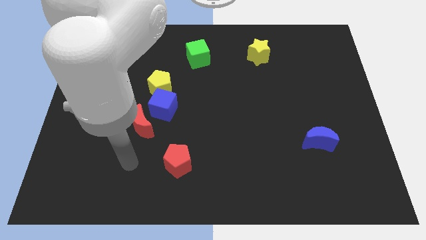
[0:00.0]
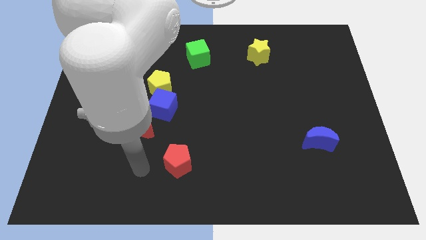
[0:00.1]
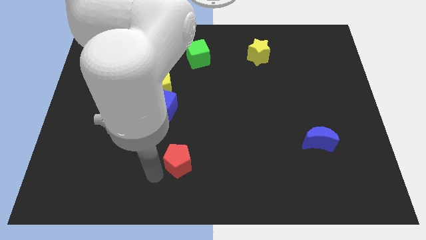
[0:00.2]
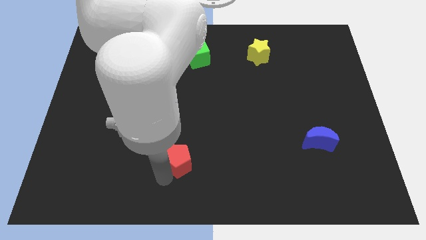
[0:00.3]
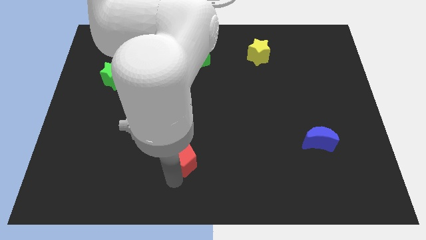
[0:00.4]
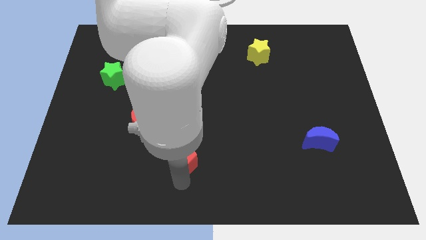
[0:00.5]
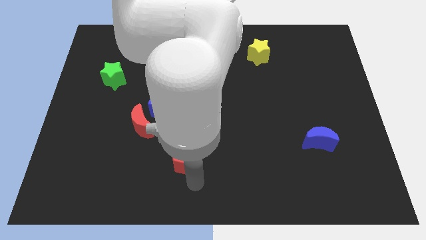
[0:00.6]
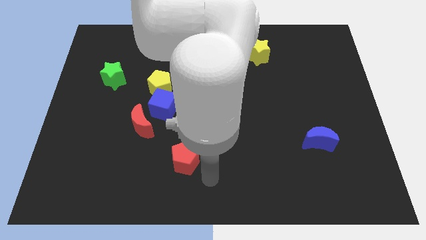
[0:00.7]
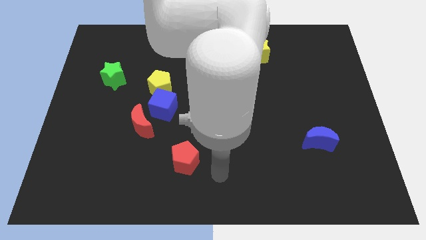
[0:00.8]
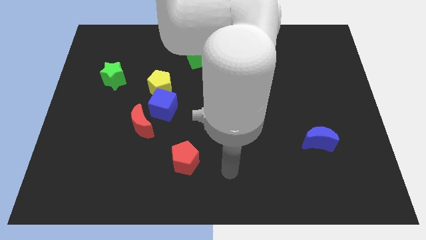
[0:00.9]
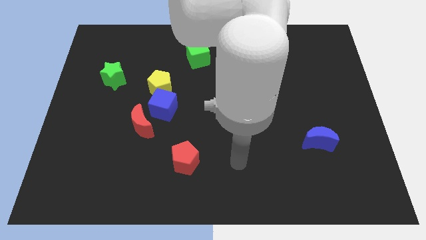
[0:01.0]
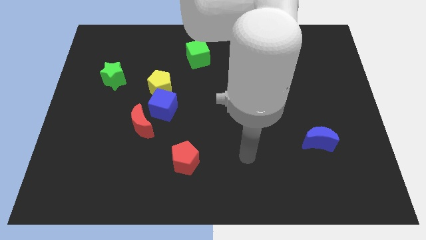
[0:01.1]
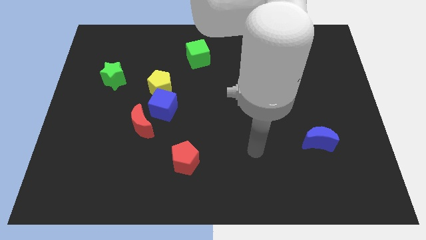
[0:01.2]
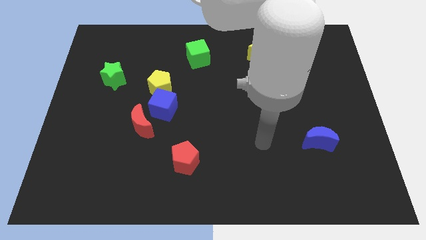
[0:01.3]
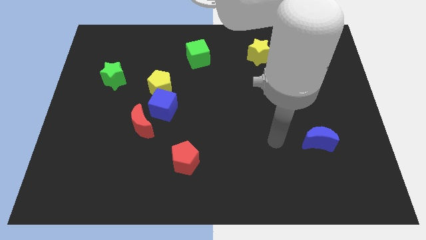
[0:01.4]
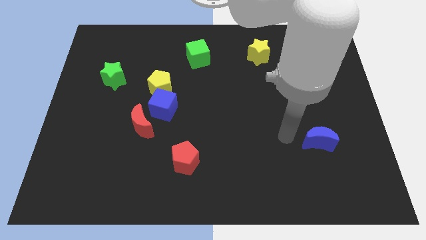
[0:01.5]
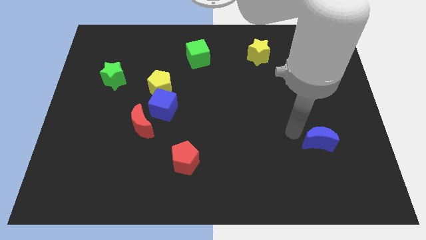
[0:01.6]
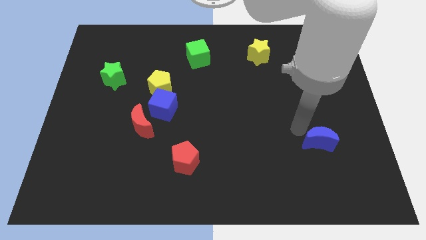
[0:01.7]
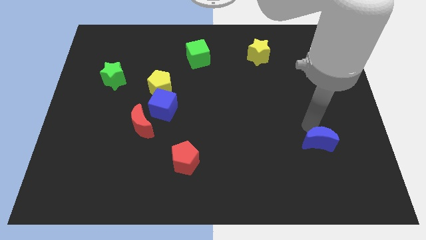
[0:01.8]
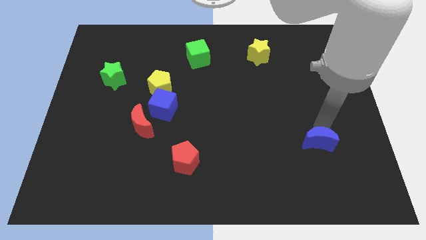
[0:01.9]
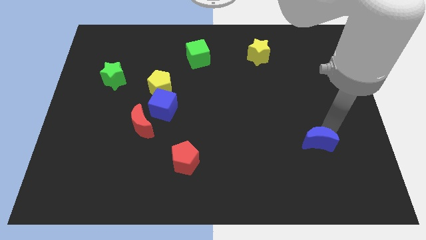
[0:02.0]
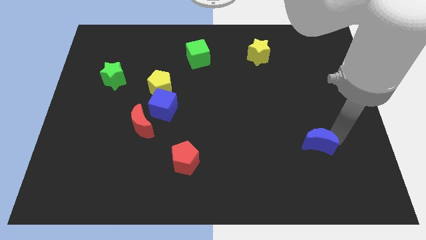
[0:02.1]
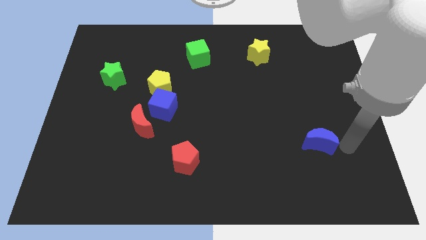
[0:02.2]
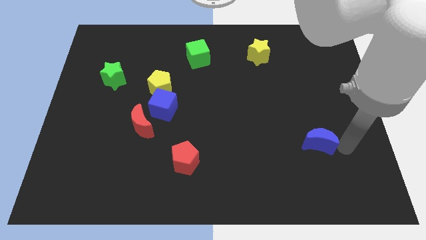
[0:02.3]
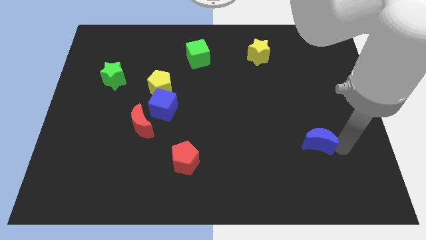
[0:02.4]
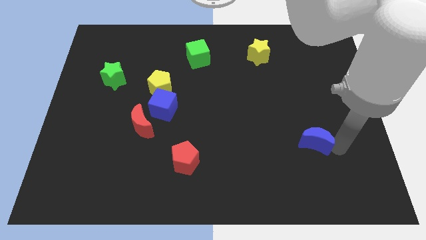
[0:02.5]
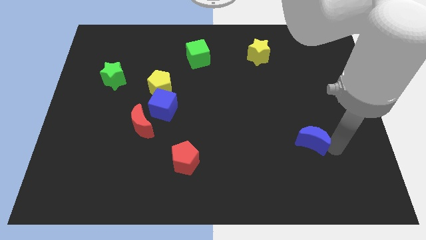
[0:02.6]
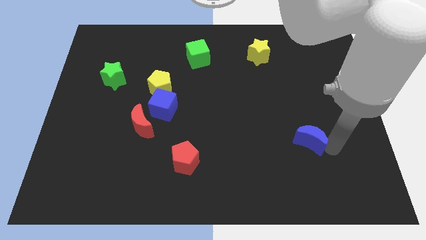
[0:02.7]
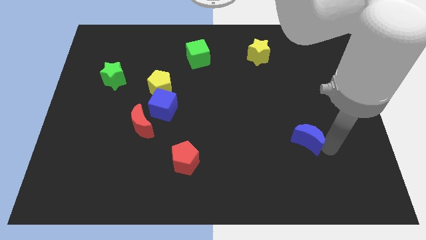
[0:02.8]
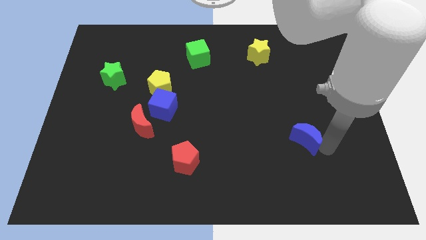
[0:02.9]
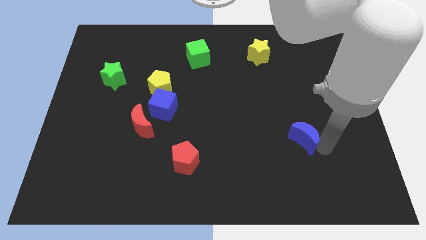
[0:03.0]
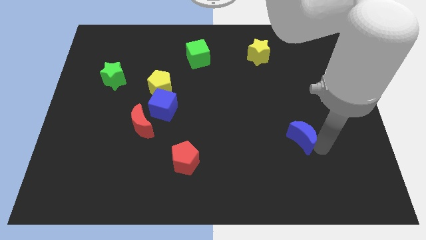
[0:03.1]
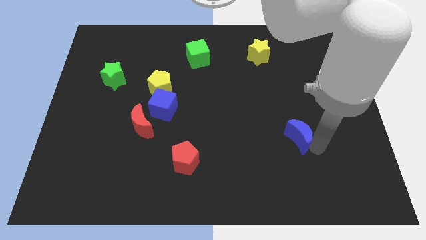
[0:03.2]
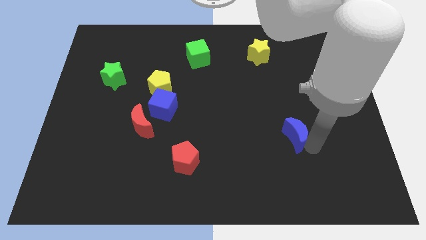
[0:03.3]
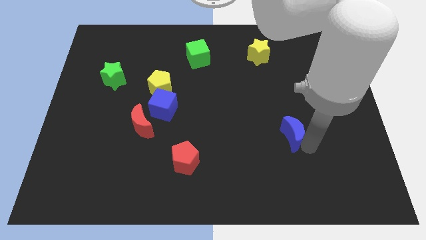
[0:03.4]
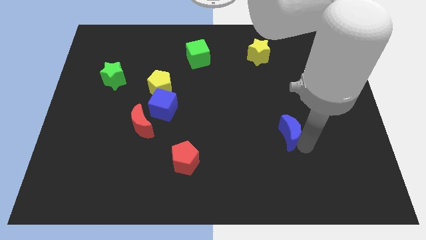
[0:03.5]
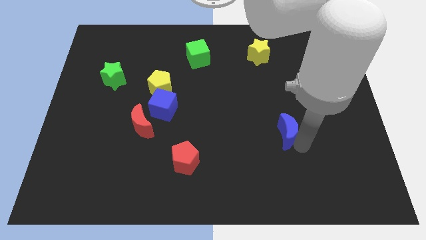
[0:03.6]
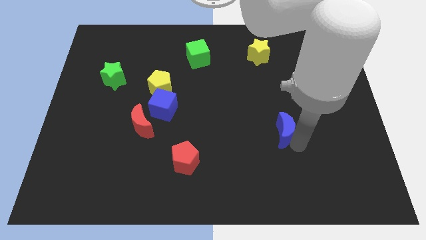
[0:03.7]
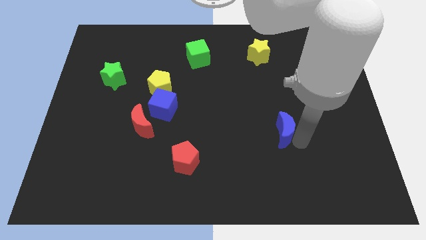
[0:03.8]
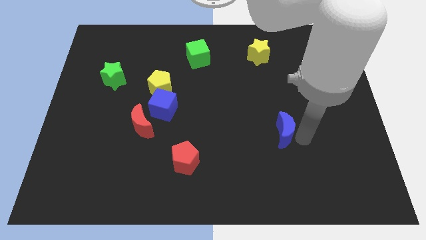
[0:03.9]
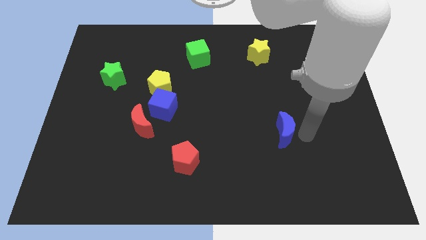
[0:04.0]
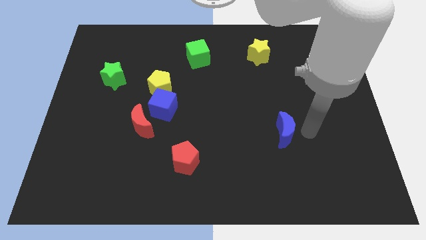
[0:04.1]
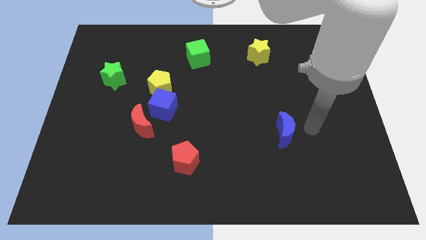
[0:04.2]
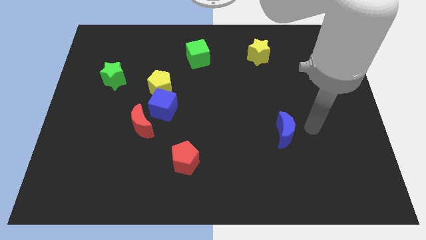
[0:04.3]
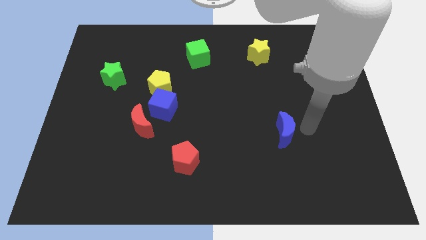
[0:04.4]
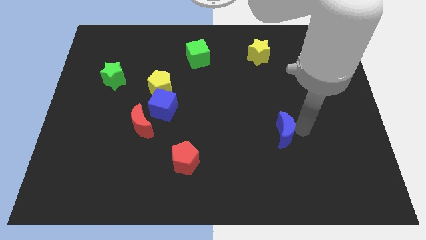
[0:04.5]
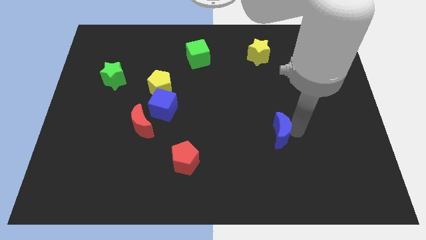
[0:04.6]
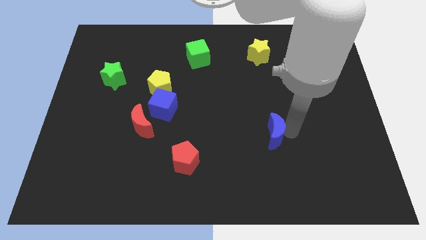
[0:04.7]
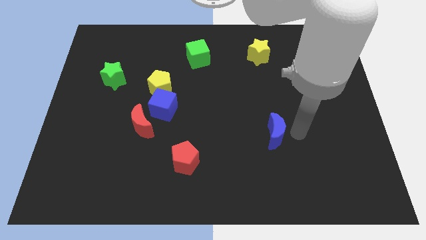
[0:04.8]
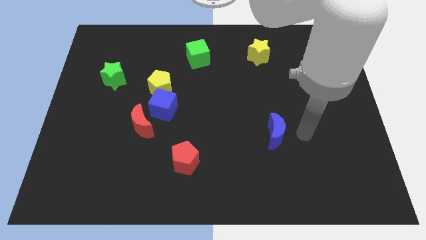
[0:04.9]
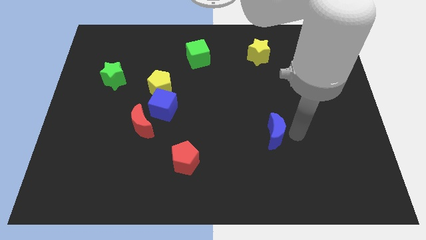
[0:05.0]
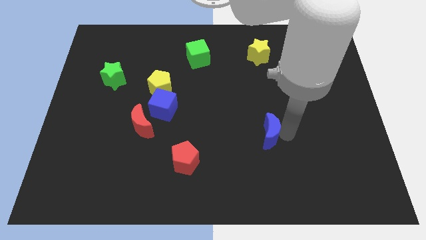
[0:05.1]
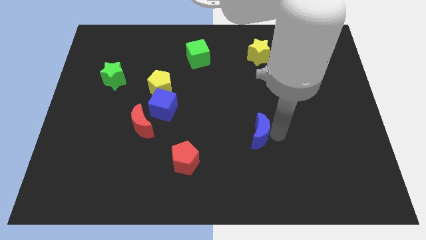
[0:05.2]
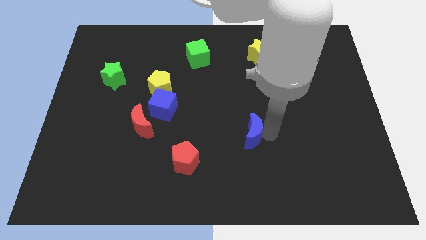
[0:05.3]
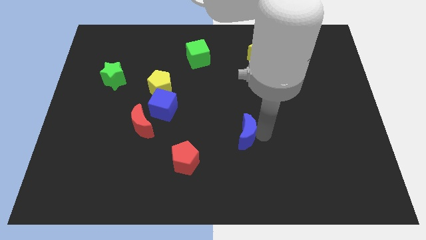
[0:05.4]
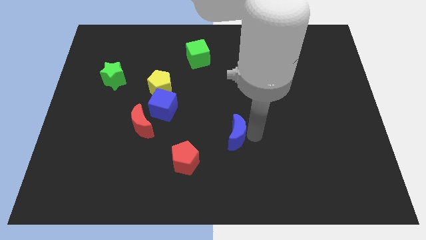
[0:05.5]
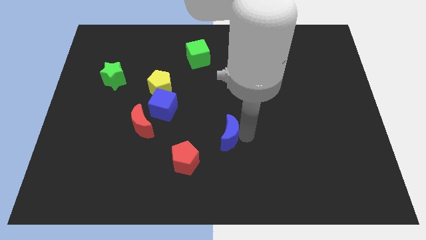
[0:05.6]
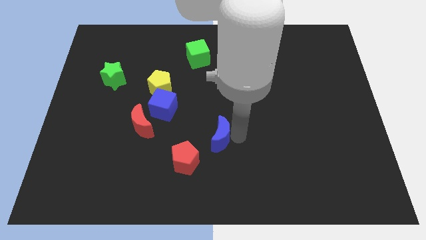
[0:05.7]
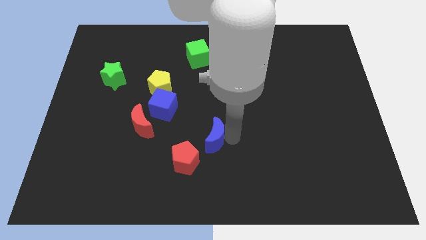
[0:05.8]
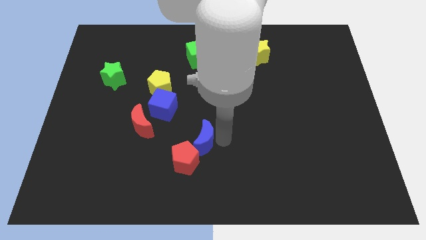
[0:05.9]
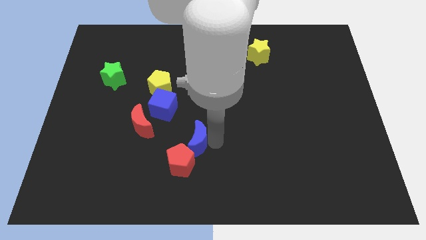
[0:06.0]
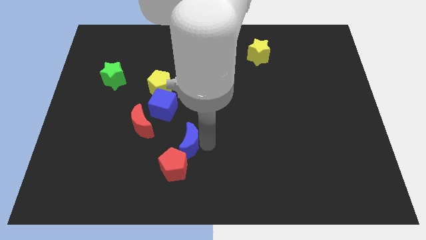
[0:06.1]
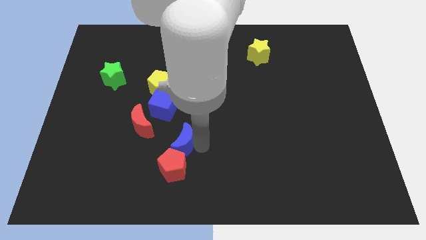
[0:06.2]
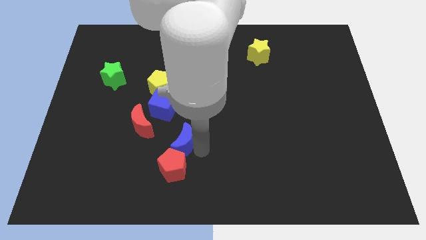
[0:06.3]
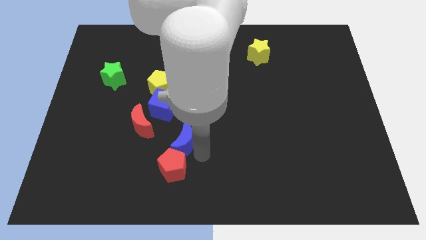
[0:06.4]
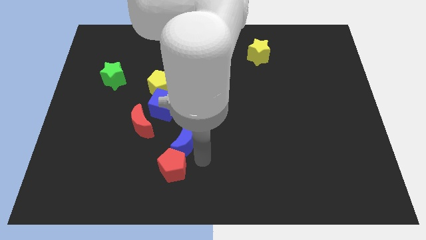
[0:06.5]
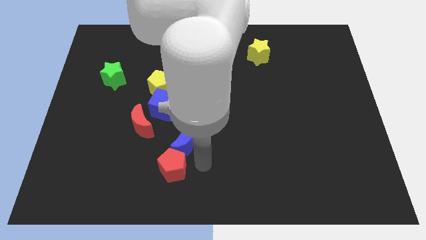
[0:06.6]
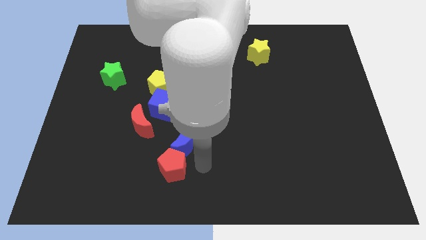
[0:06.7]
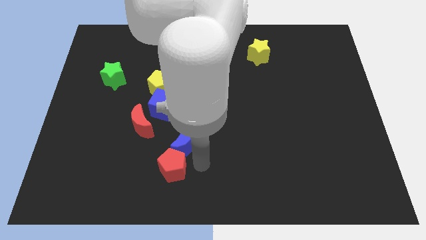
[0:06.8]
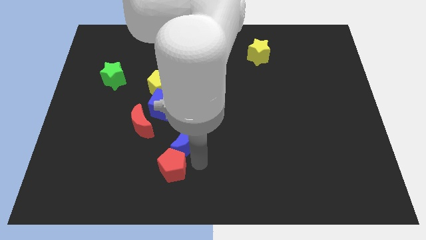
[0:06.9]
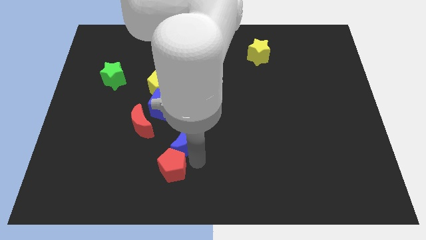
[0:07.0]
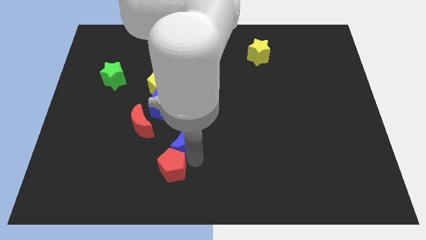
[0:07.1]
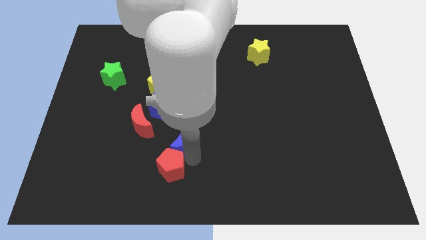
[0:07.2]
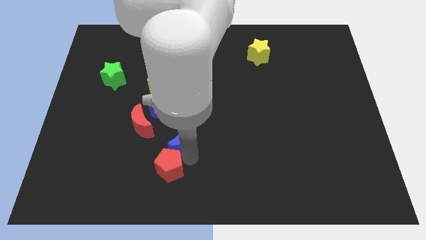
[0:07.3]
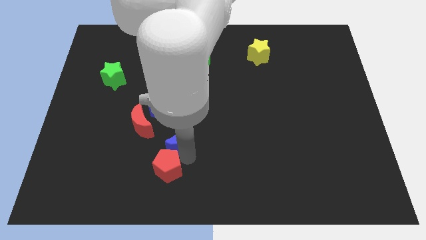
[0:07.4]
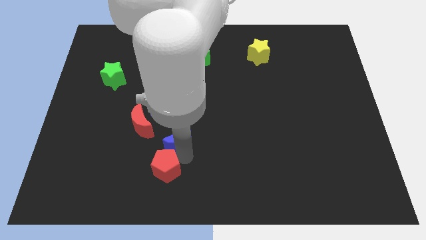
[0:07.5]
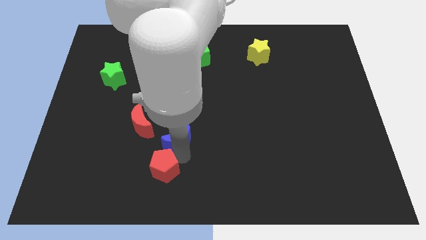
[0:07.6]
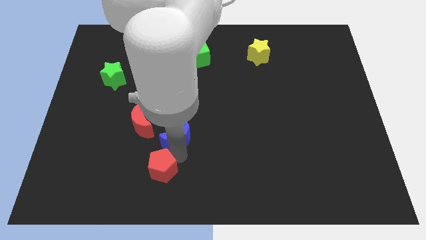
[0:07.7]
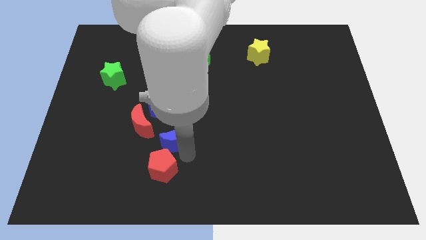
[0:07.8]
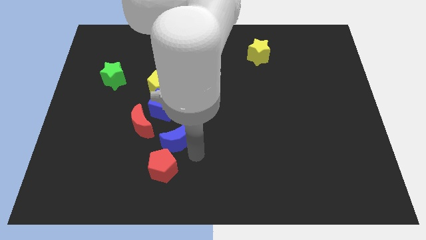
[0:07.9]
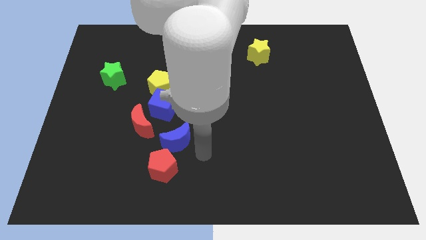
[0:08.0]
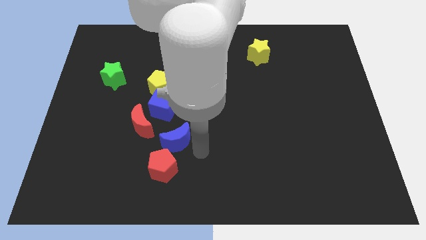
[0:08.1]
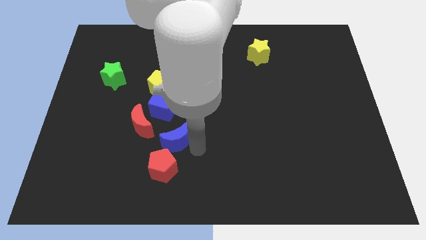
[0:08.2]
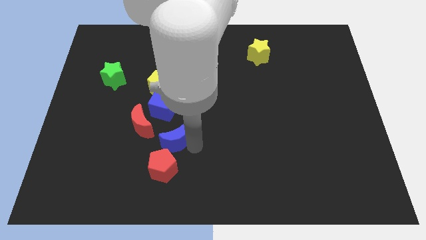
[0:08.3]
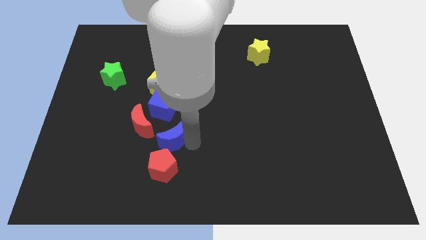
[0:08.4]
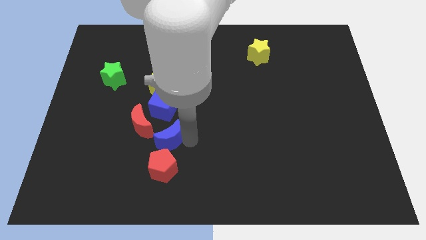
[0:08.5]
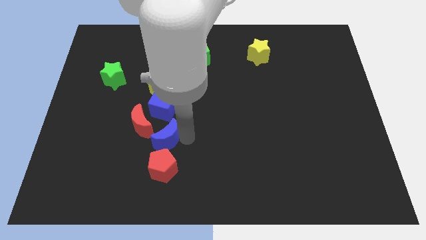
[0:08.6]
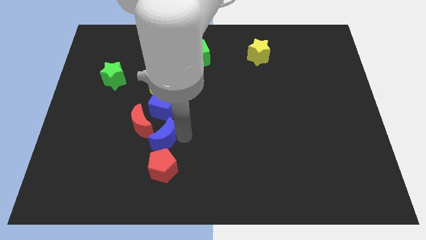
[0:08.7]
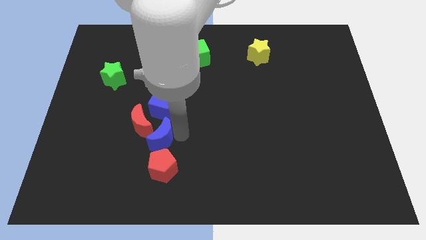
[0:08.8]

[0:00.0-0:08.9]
push the blue moon next to the red moon
